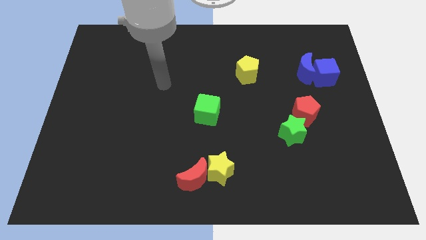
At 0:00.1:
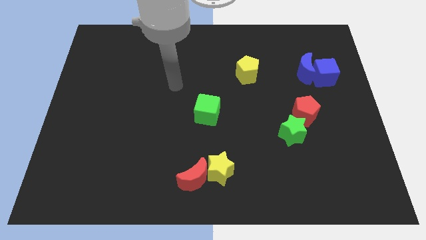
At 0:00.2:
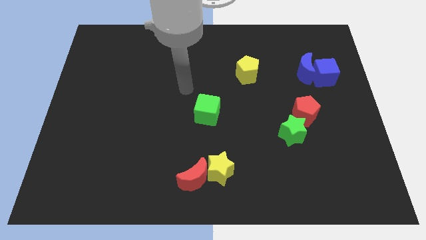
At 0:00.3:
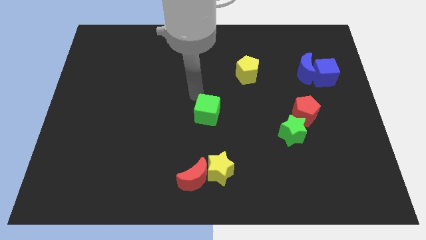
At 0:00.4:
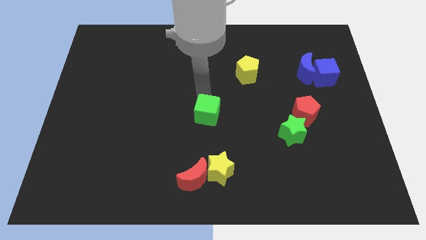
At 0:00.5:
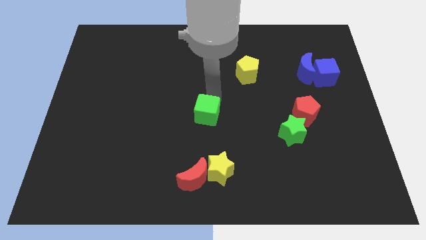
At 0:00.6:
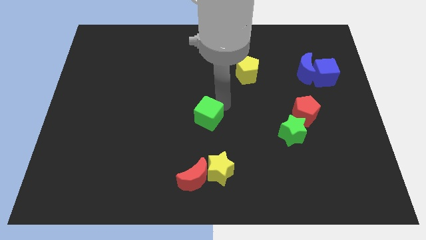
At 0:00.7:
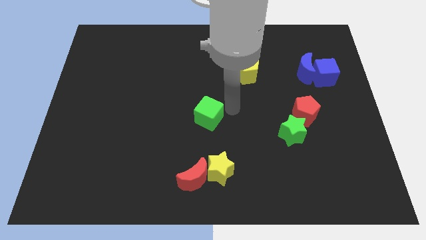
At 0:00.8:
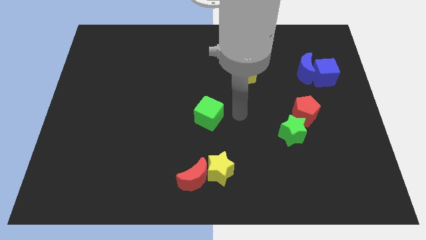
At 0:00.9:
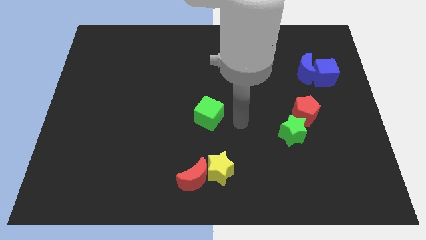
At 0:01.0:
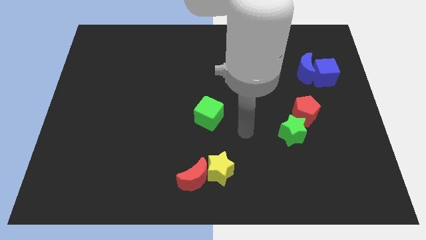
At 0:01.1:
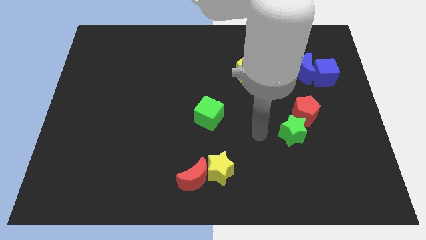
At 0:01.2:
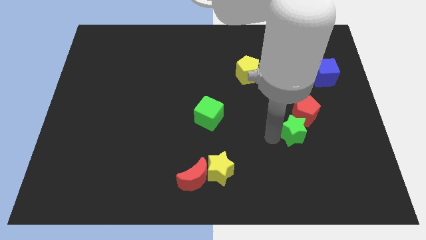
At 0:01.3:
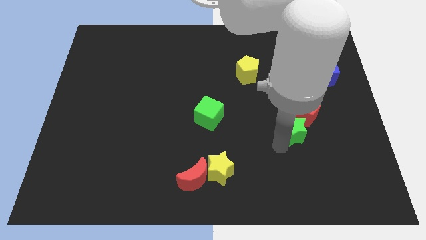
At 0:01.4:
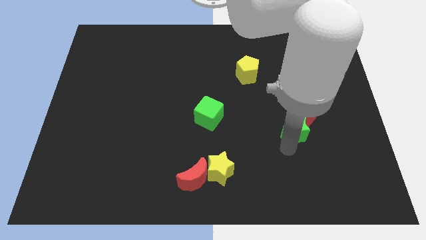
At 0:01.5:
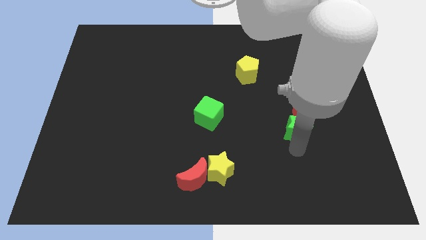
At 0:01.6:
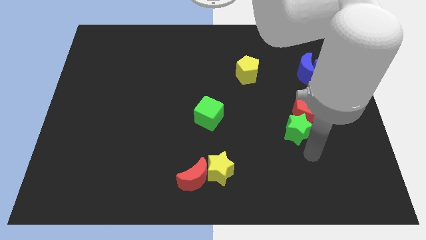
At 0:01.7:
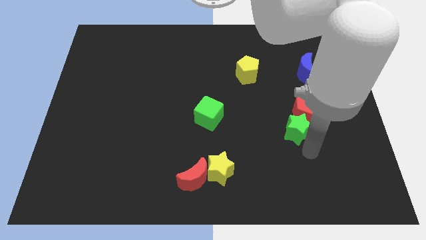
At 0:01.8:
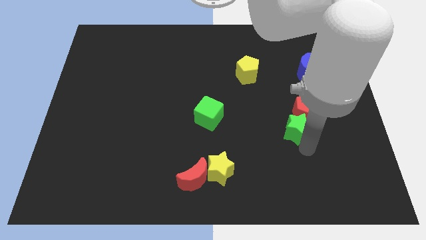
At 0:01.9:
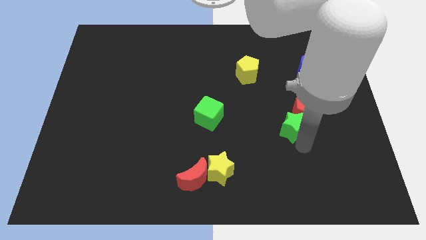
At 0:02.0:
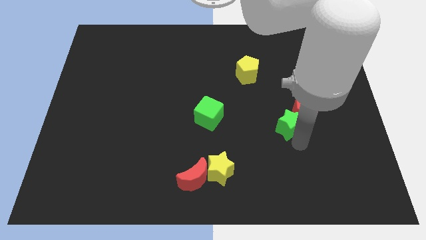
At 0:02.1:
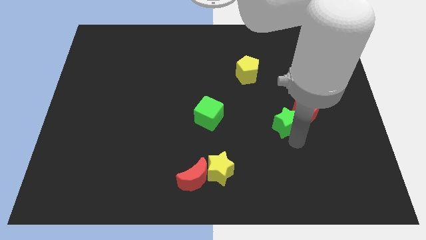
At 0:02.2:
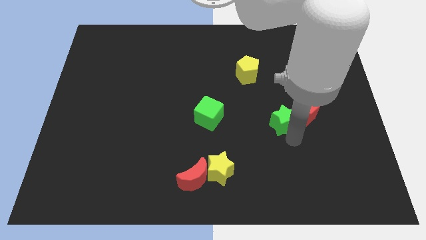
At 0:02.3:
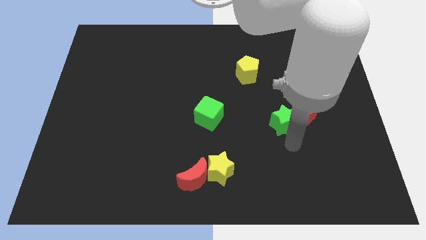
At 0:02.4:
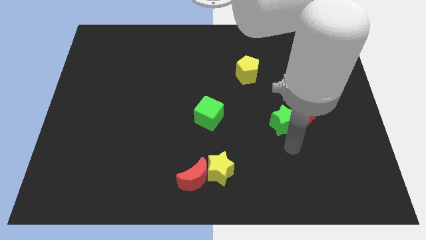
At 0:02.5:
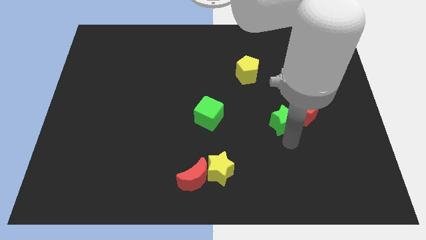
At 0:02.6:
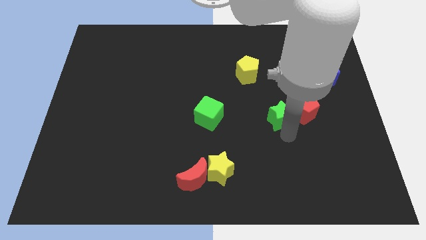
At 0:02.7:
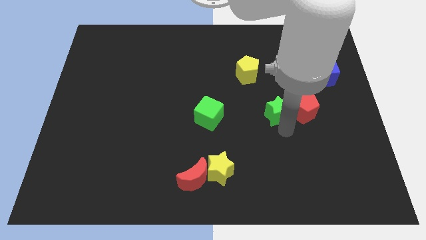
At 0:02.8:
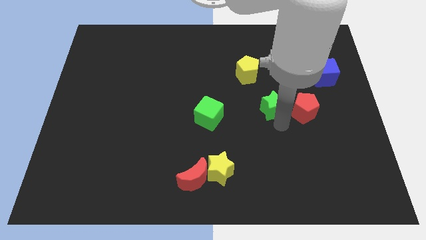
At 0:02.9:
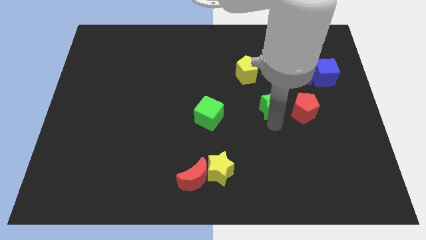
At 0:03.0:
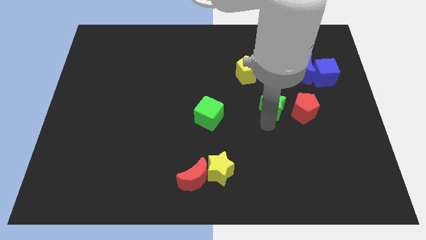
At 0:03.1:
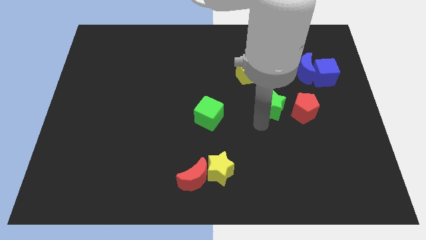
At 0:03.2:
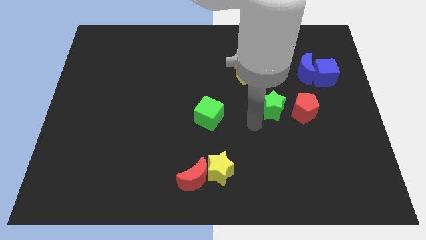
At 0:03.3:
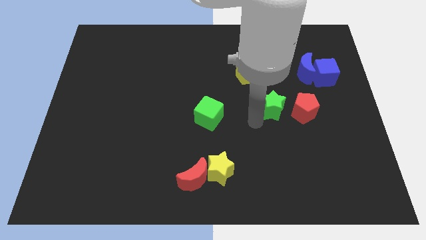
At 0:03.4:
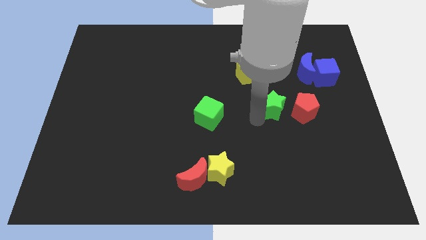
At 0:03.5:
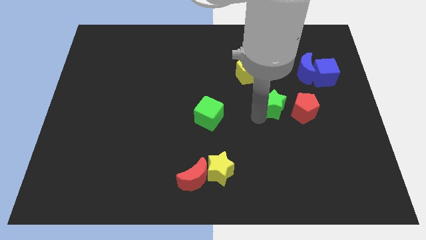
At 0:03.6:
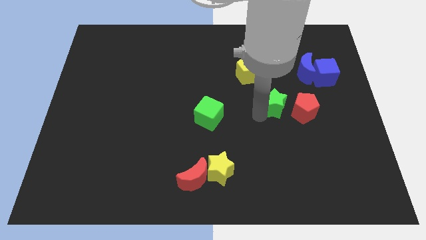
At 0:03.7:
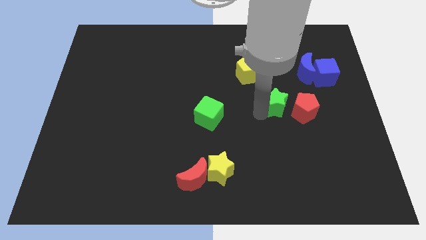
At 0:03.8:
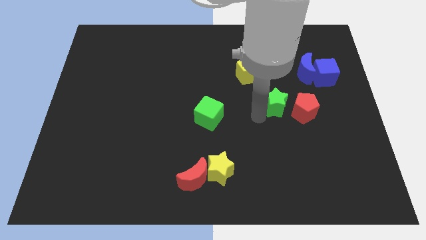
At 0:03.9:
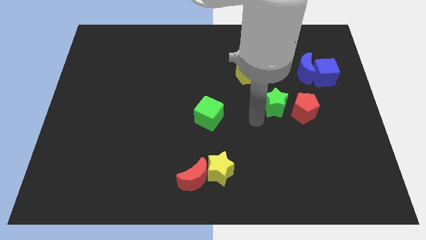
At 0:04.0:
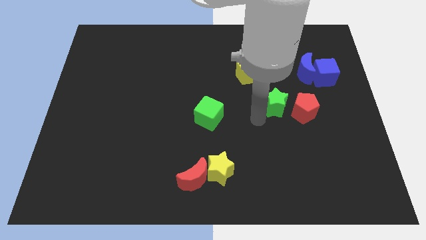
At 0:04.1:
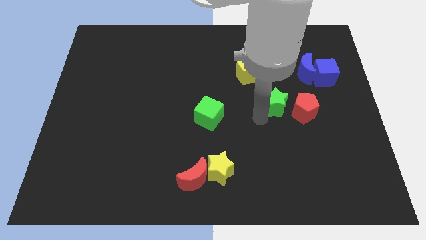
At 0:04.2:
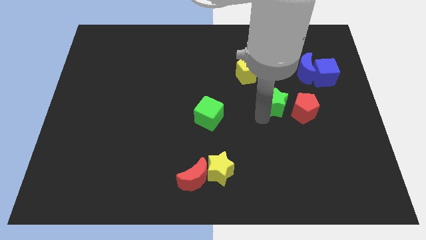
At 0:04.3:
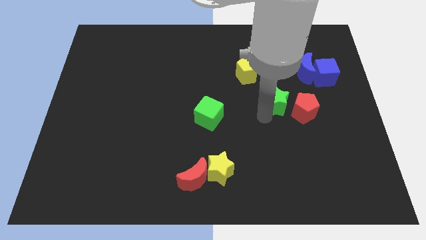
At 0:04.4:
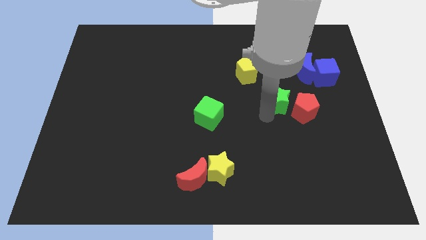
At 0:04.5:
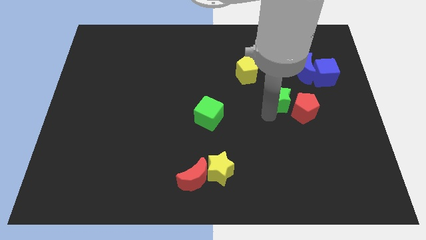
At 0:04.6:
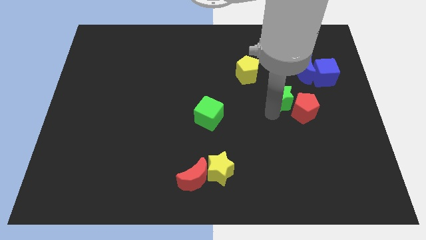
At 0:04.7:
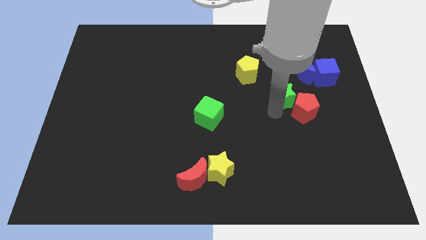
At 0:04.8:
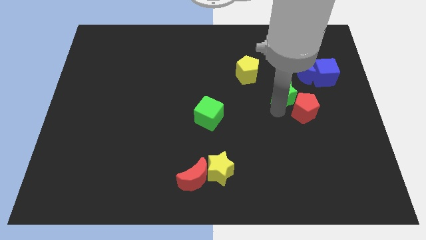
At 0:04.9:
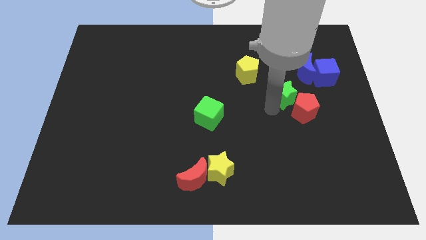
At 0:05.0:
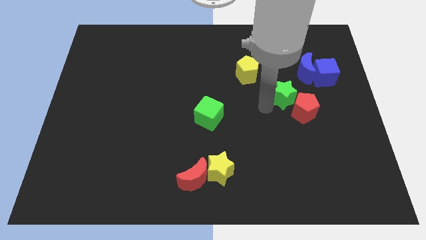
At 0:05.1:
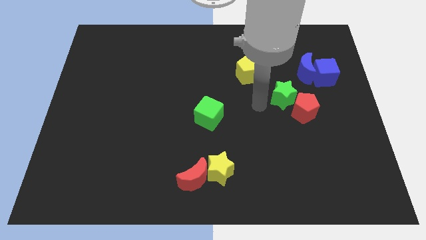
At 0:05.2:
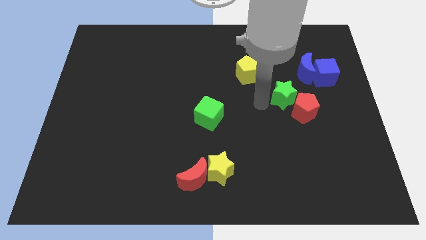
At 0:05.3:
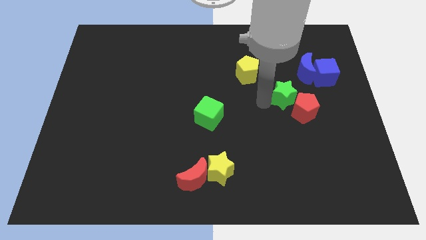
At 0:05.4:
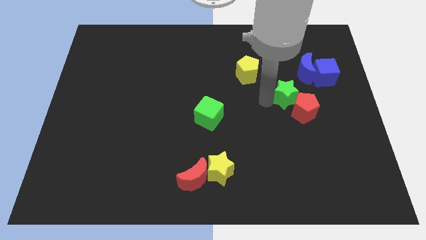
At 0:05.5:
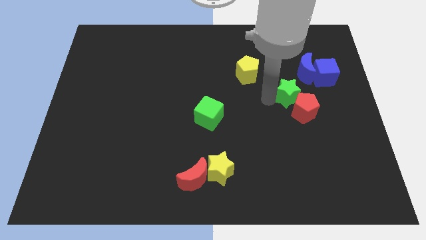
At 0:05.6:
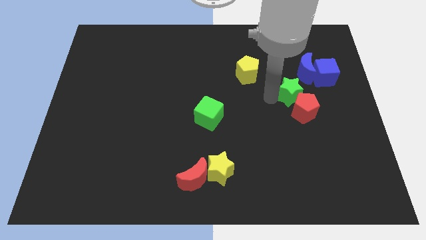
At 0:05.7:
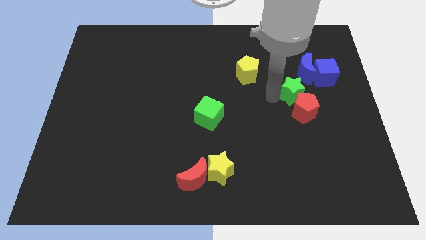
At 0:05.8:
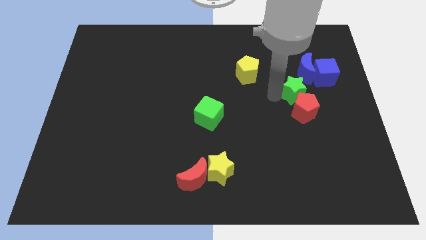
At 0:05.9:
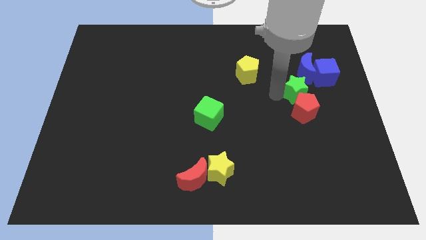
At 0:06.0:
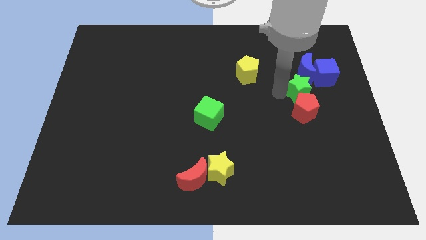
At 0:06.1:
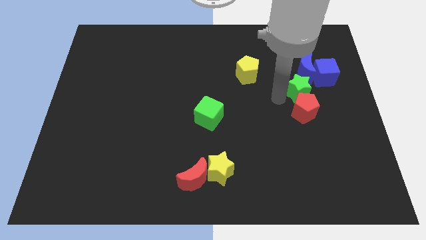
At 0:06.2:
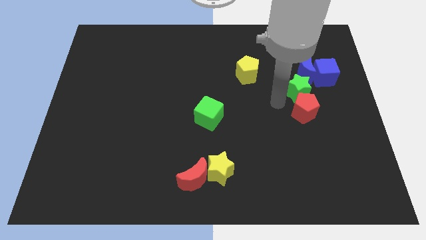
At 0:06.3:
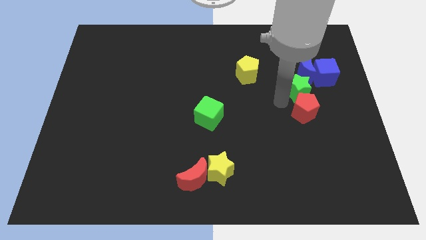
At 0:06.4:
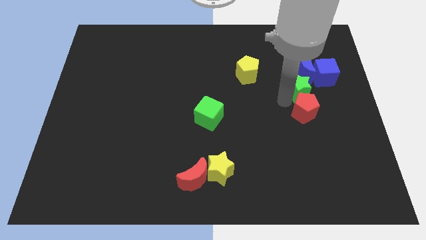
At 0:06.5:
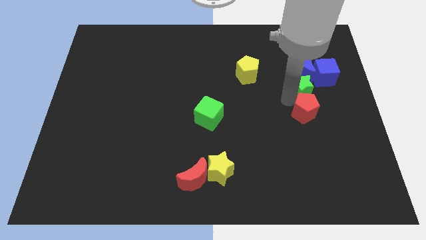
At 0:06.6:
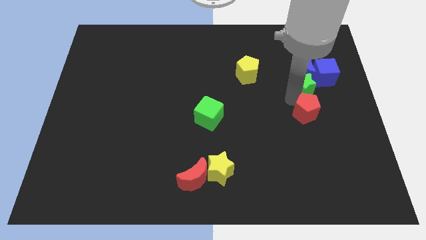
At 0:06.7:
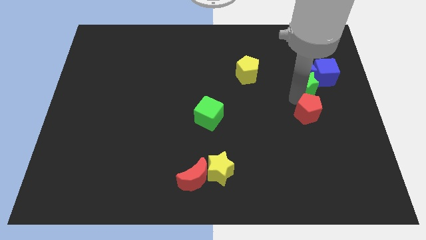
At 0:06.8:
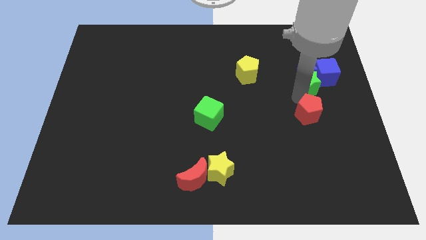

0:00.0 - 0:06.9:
put the green star close to the blue cube
